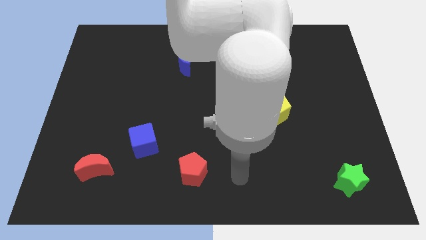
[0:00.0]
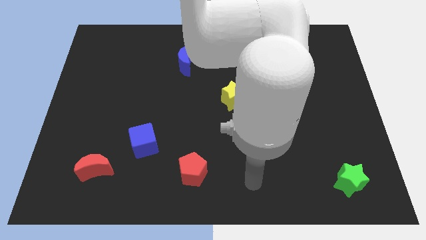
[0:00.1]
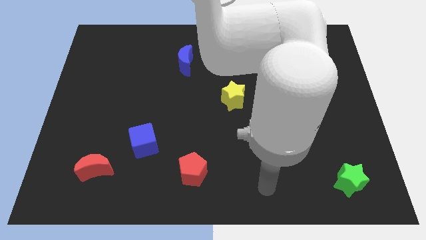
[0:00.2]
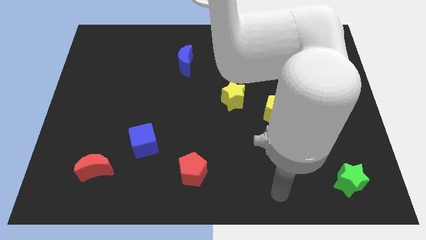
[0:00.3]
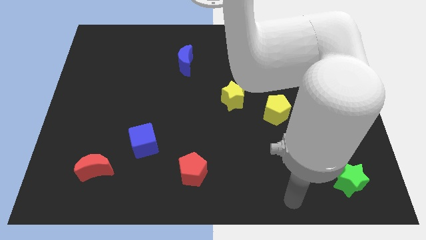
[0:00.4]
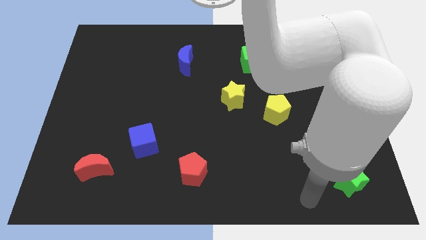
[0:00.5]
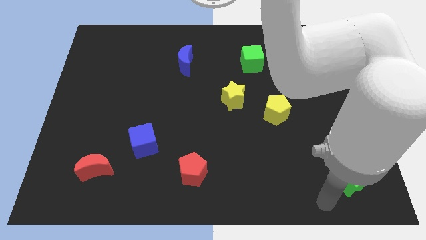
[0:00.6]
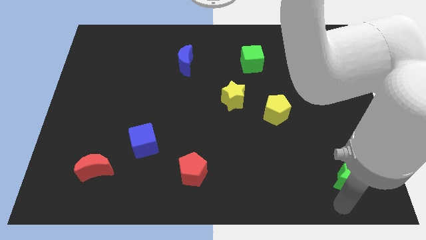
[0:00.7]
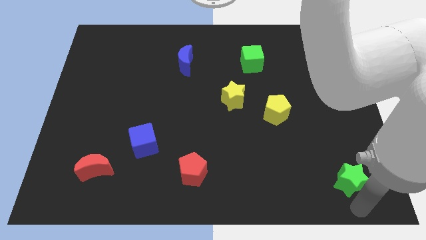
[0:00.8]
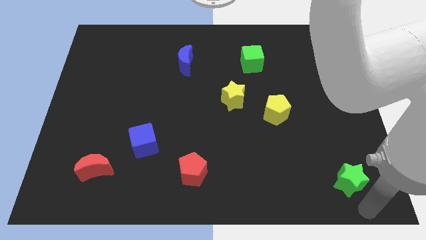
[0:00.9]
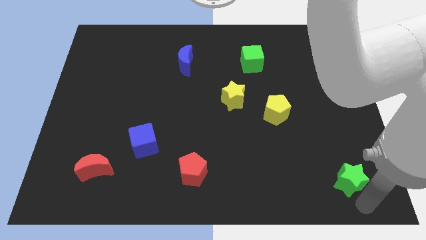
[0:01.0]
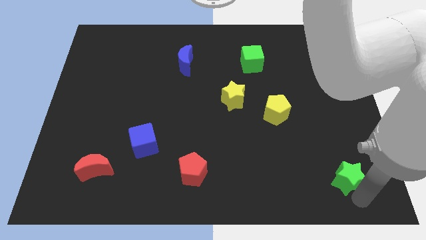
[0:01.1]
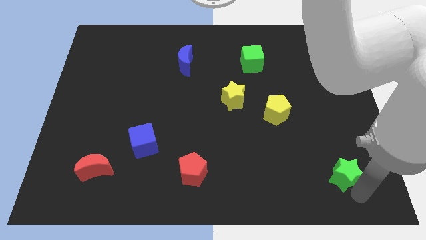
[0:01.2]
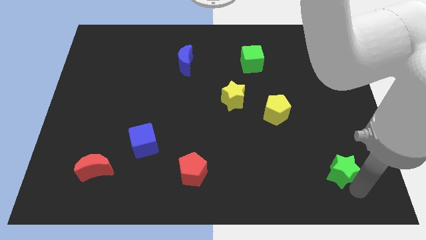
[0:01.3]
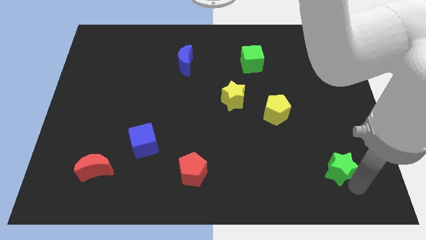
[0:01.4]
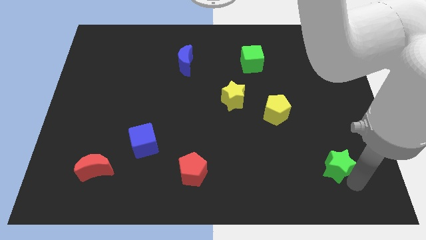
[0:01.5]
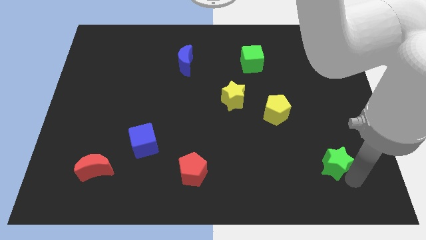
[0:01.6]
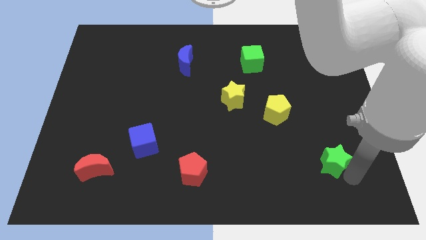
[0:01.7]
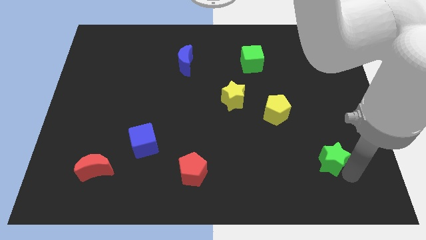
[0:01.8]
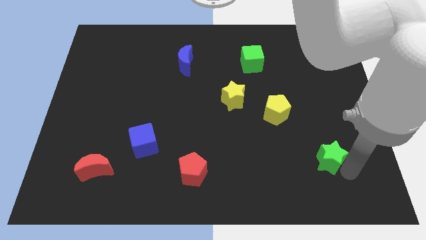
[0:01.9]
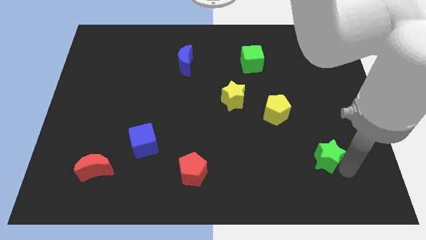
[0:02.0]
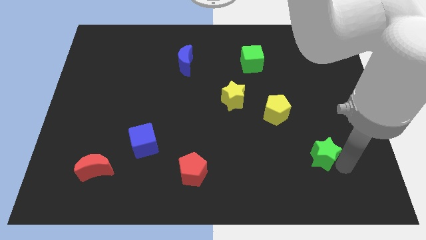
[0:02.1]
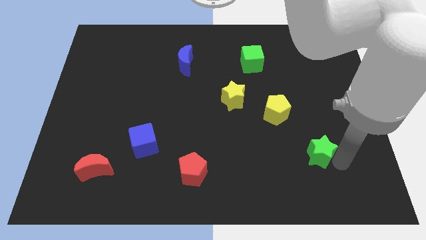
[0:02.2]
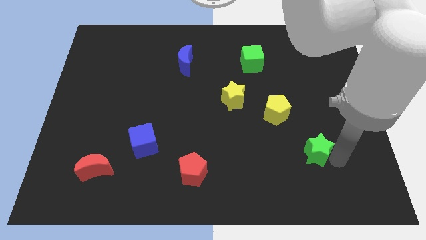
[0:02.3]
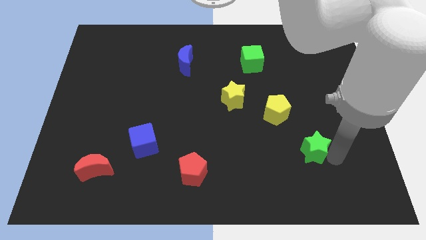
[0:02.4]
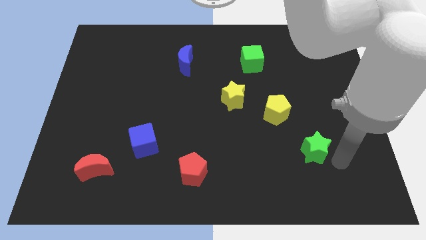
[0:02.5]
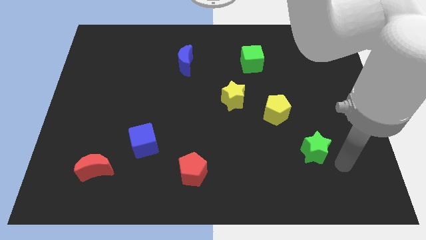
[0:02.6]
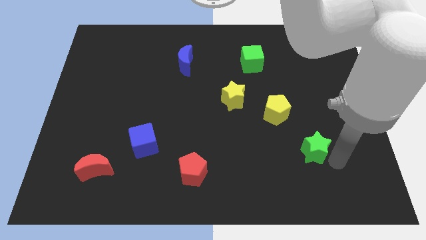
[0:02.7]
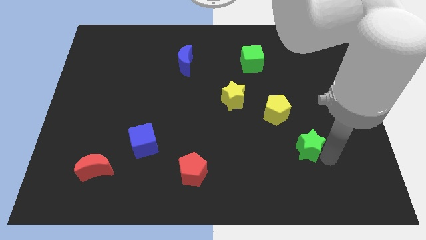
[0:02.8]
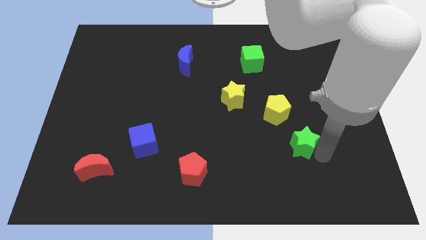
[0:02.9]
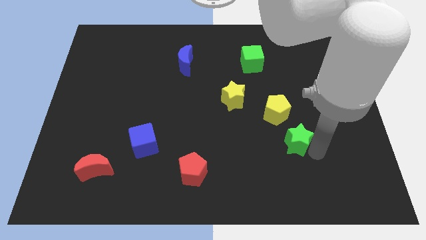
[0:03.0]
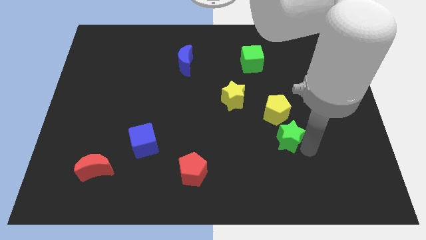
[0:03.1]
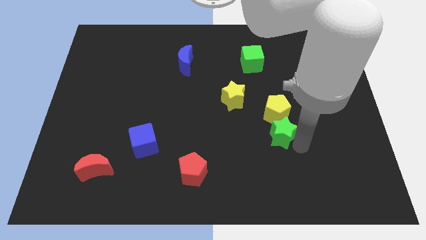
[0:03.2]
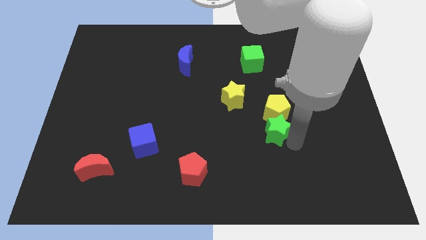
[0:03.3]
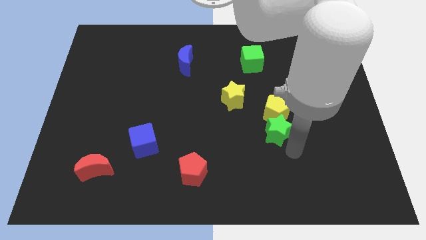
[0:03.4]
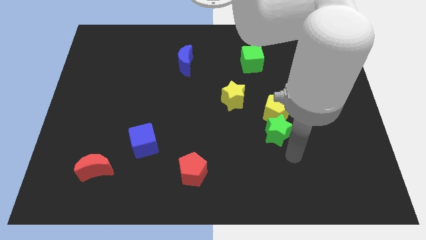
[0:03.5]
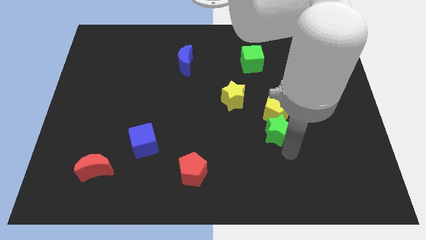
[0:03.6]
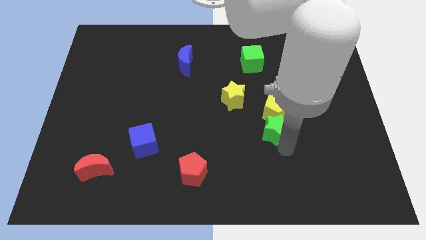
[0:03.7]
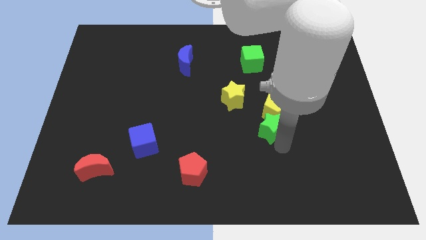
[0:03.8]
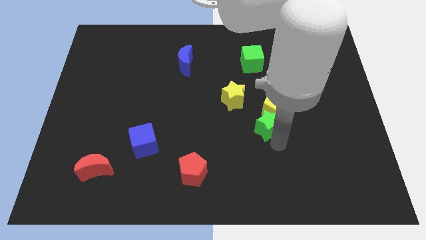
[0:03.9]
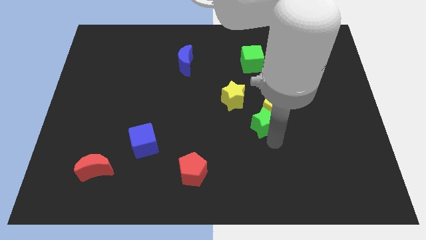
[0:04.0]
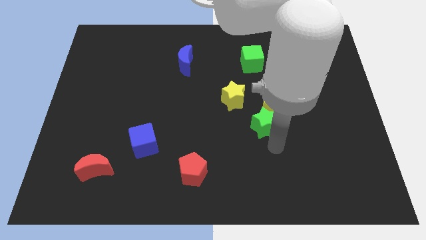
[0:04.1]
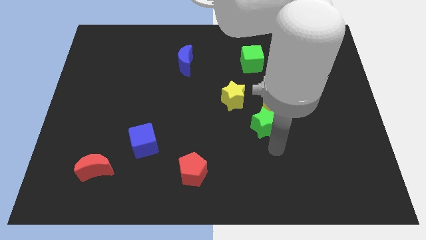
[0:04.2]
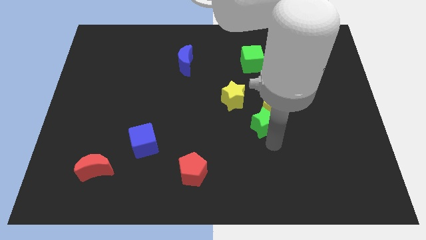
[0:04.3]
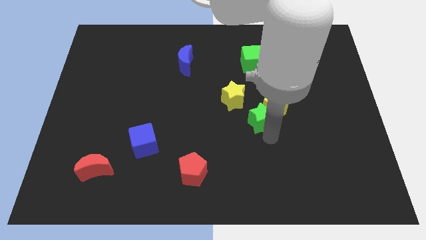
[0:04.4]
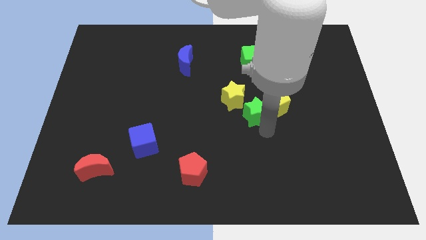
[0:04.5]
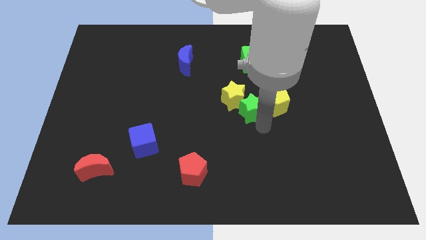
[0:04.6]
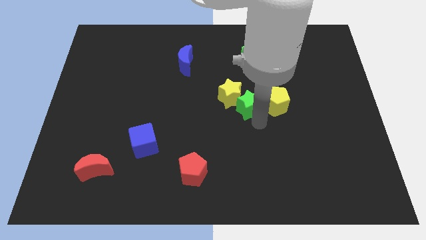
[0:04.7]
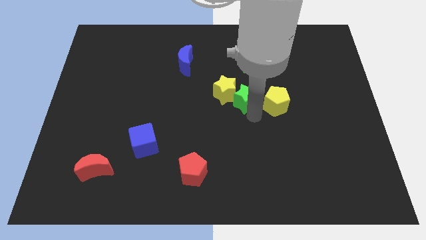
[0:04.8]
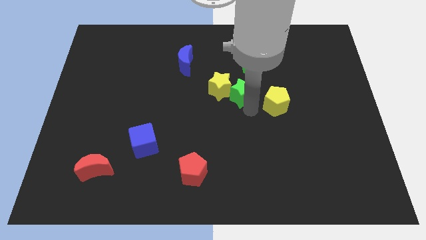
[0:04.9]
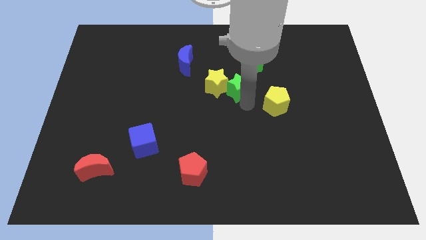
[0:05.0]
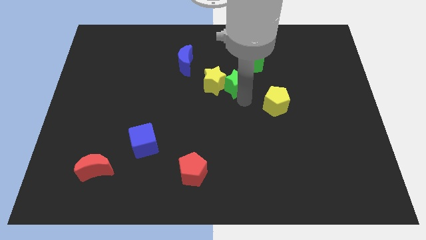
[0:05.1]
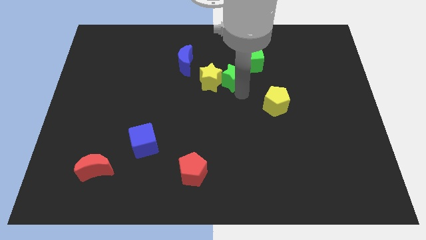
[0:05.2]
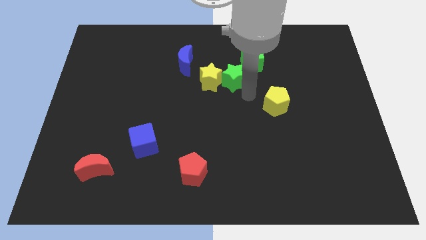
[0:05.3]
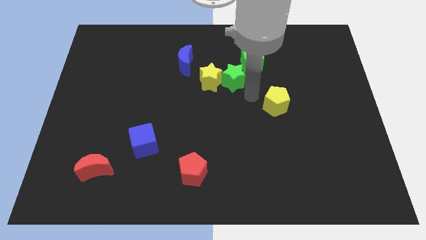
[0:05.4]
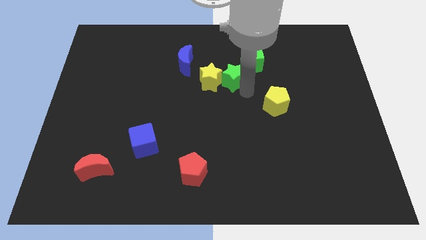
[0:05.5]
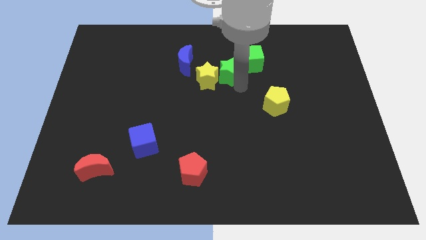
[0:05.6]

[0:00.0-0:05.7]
move the green star left of the green cube

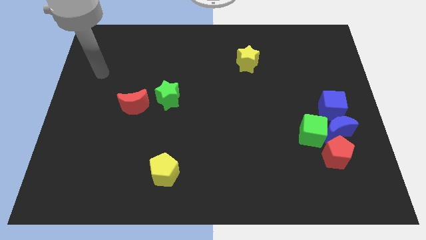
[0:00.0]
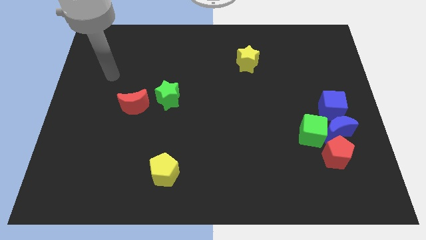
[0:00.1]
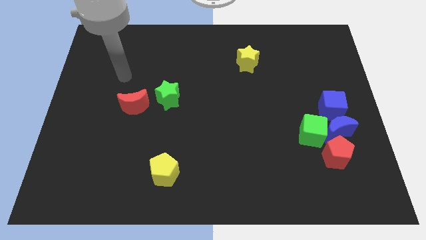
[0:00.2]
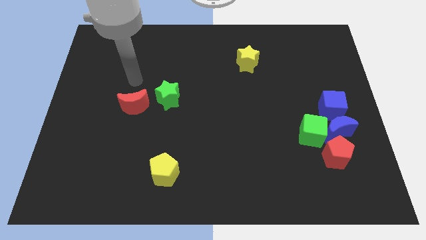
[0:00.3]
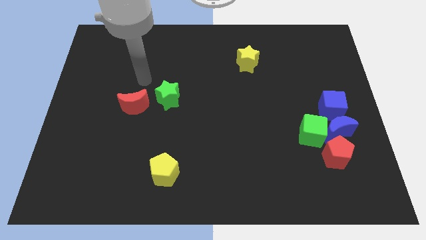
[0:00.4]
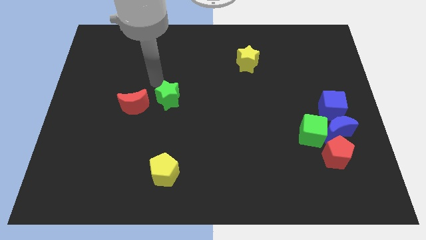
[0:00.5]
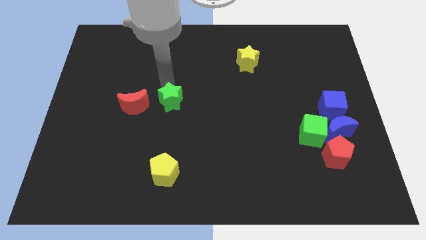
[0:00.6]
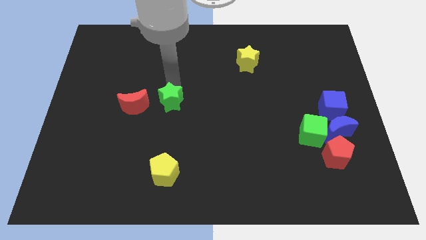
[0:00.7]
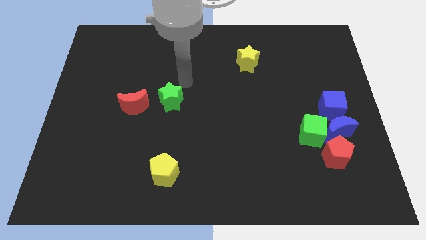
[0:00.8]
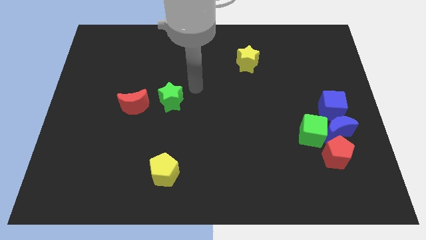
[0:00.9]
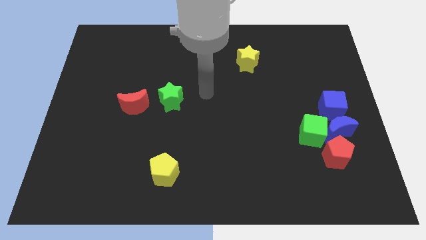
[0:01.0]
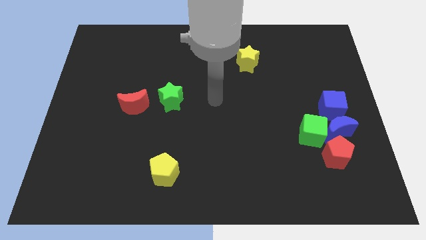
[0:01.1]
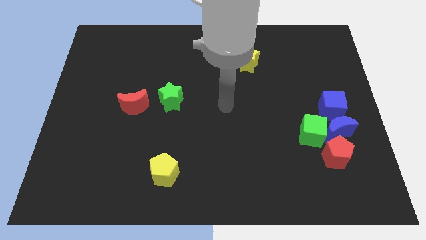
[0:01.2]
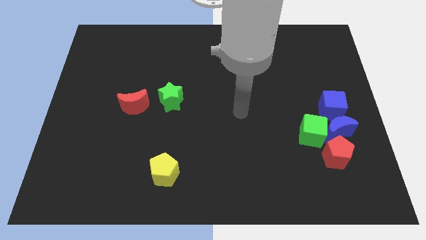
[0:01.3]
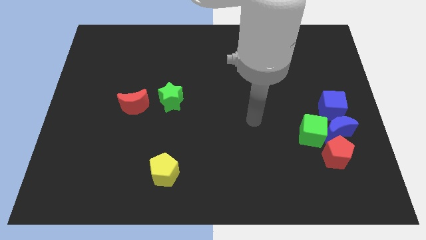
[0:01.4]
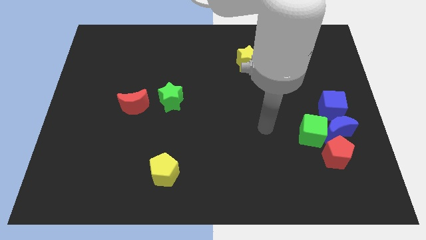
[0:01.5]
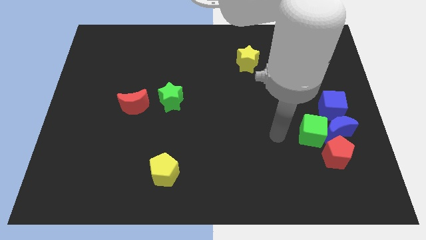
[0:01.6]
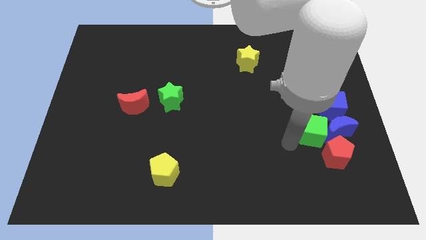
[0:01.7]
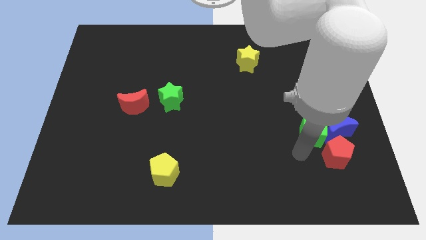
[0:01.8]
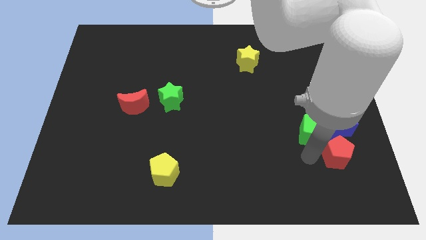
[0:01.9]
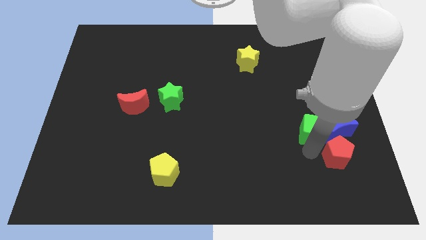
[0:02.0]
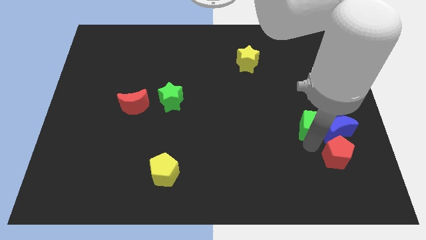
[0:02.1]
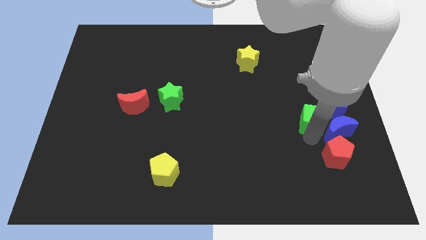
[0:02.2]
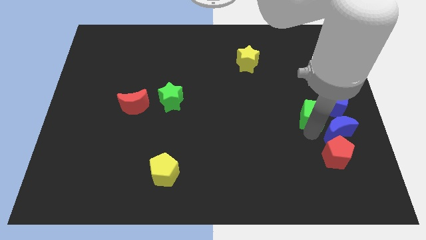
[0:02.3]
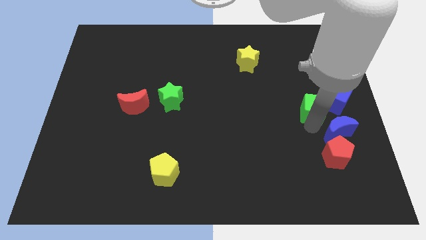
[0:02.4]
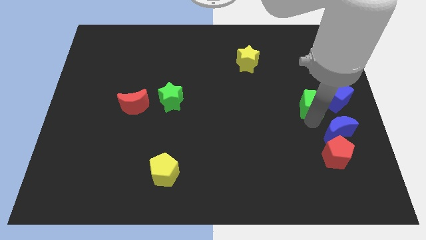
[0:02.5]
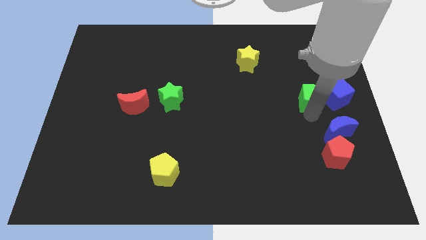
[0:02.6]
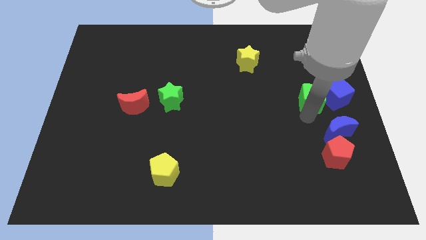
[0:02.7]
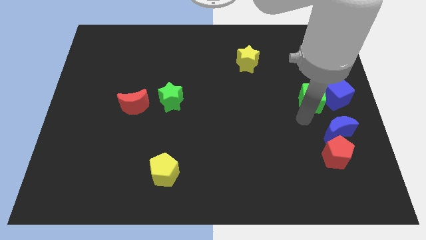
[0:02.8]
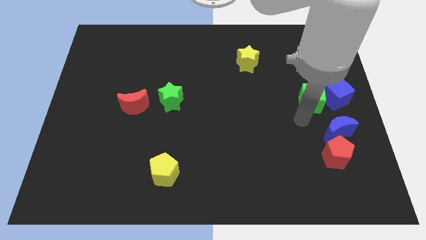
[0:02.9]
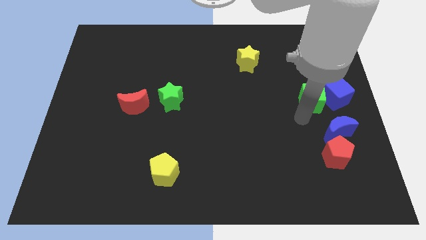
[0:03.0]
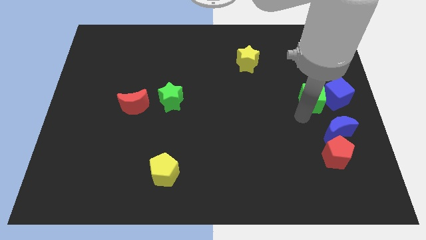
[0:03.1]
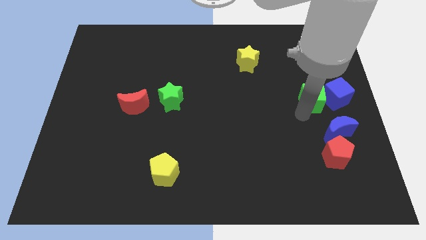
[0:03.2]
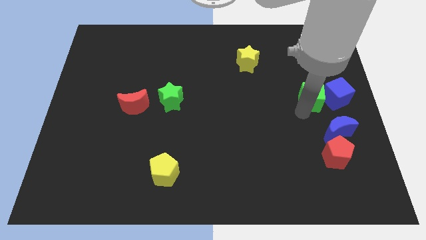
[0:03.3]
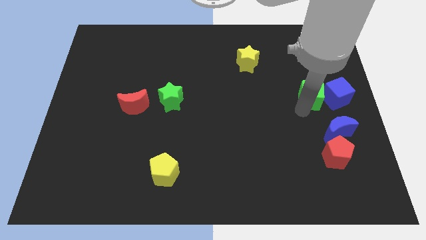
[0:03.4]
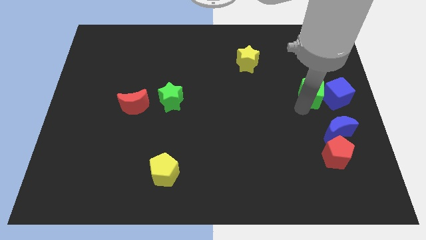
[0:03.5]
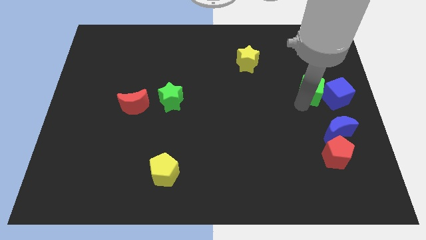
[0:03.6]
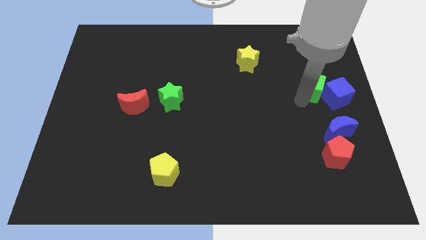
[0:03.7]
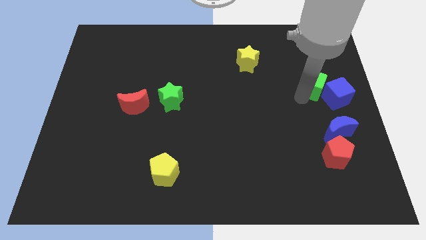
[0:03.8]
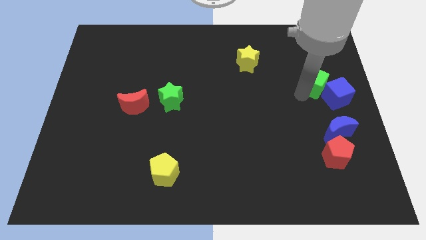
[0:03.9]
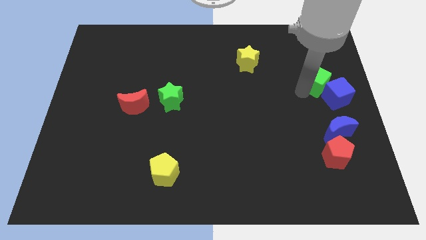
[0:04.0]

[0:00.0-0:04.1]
slide the green cube above the blue cube
